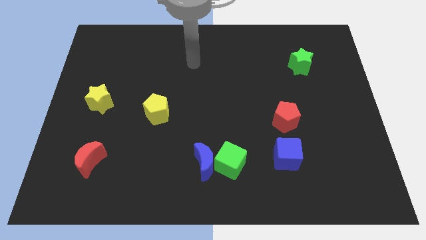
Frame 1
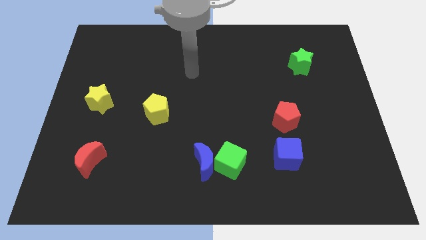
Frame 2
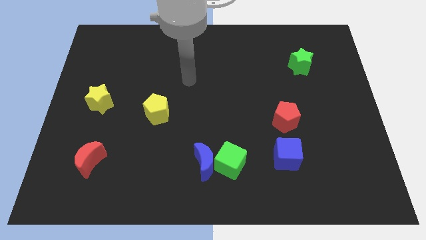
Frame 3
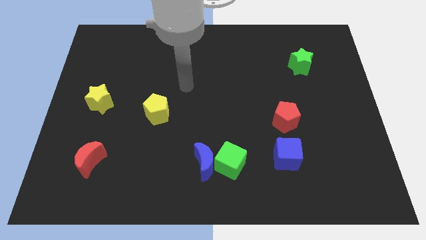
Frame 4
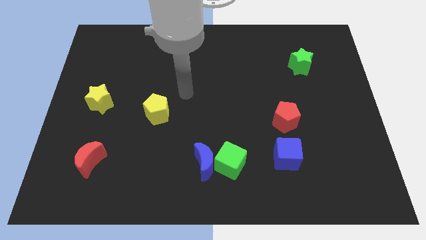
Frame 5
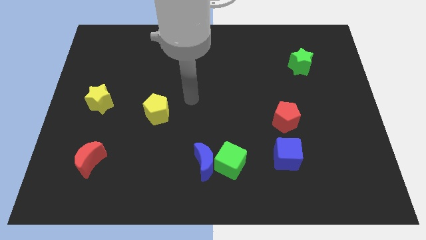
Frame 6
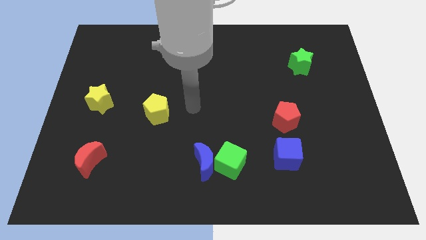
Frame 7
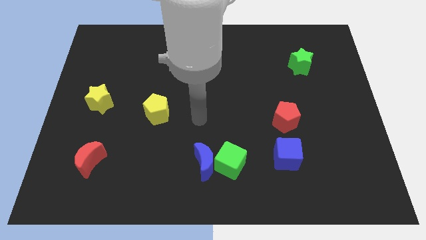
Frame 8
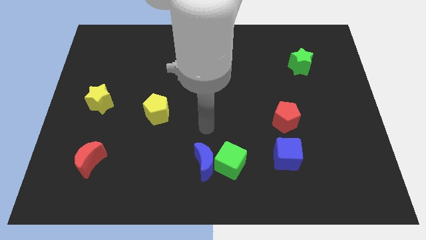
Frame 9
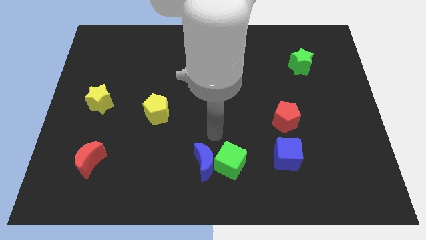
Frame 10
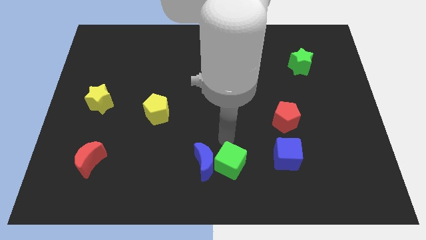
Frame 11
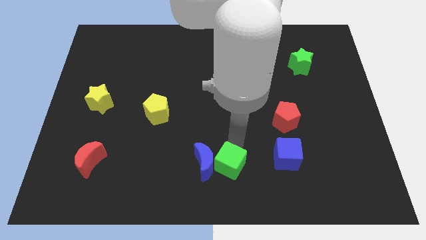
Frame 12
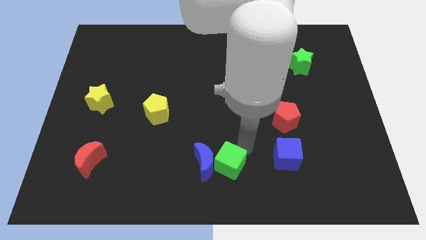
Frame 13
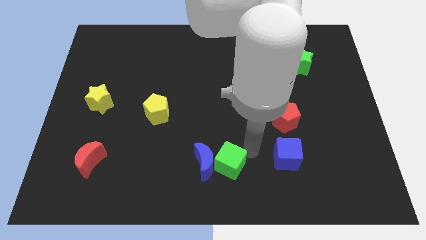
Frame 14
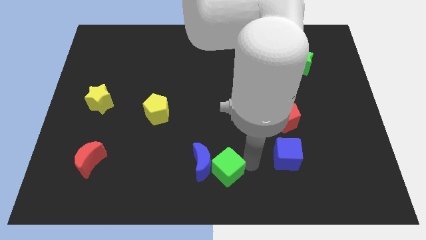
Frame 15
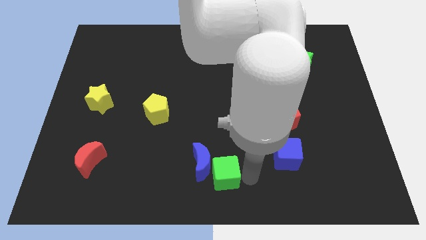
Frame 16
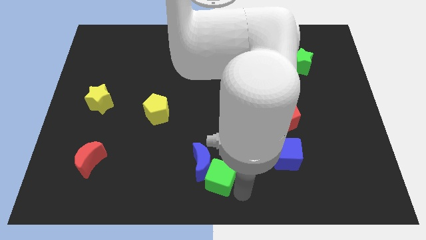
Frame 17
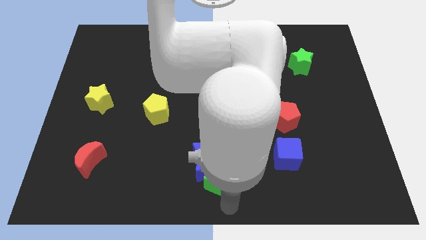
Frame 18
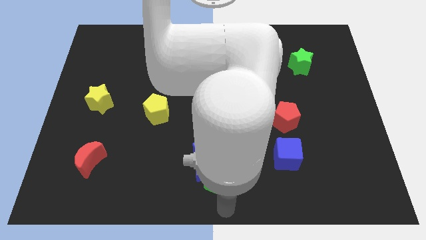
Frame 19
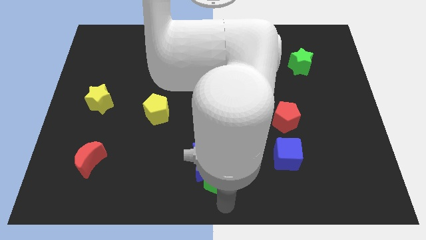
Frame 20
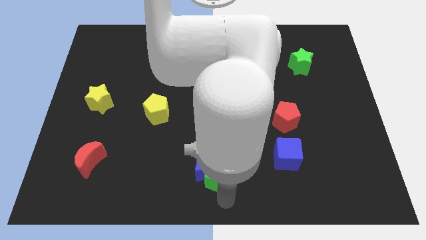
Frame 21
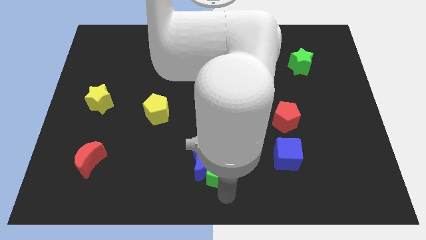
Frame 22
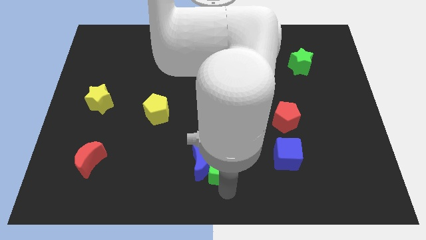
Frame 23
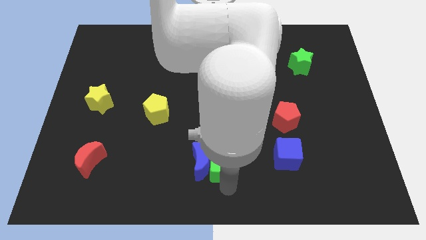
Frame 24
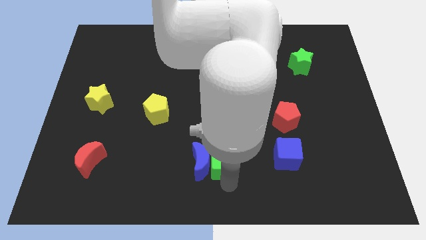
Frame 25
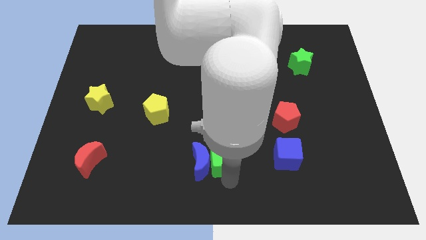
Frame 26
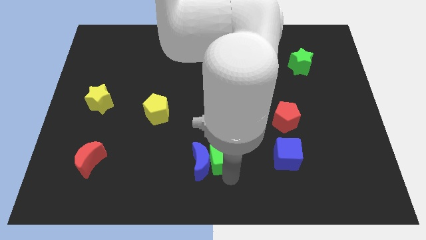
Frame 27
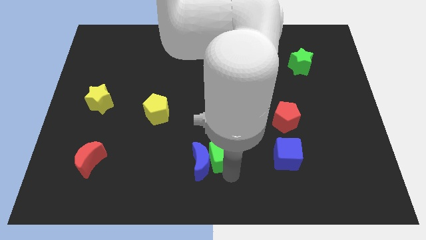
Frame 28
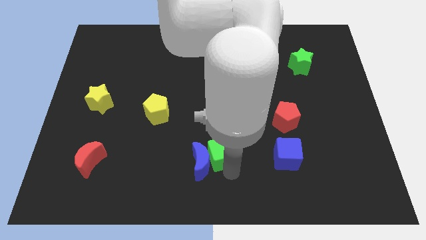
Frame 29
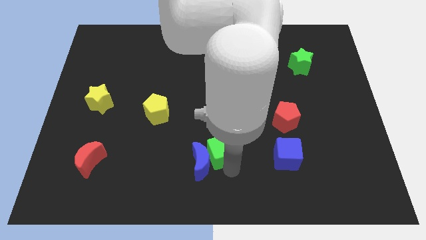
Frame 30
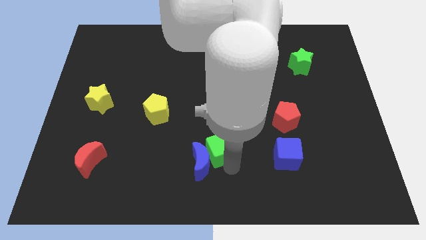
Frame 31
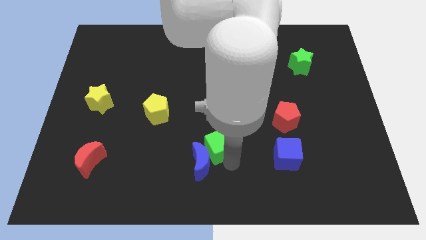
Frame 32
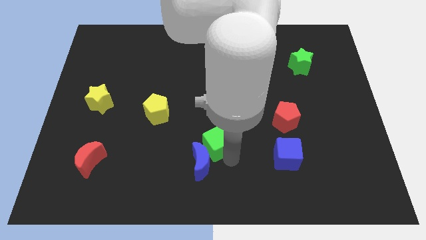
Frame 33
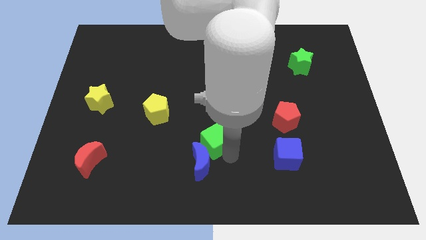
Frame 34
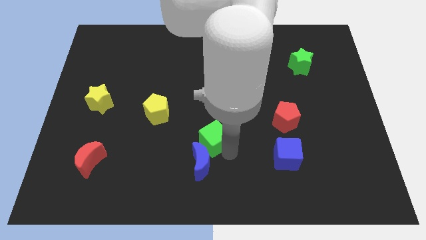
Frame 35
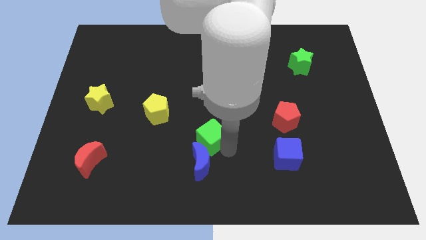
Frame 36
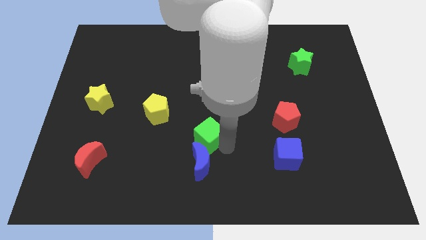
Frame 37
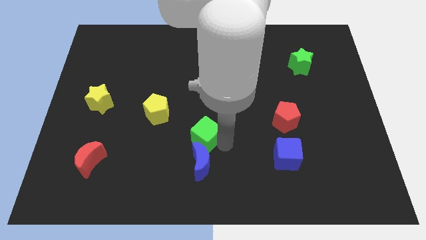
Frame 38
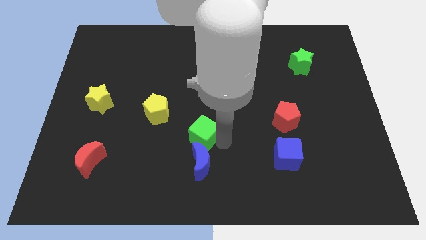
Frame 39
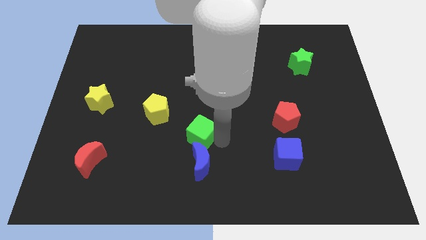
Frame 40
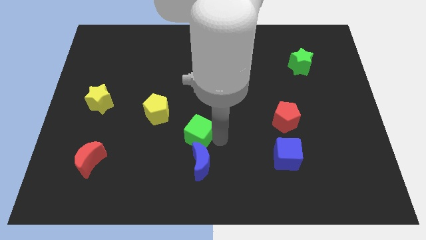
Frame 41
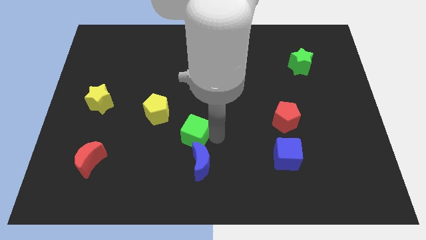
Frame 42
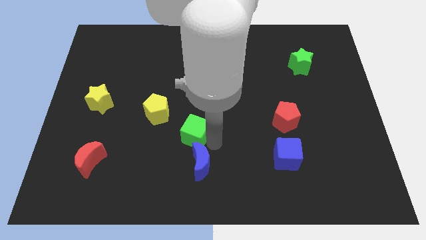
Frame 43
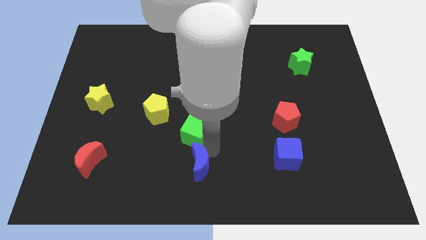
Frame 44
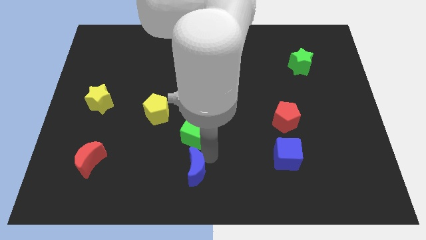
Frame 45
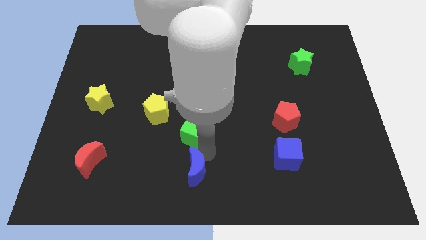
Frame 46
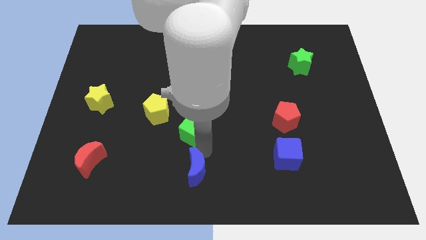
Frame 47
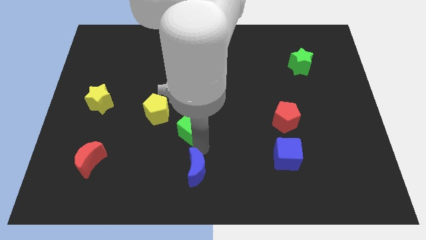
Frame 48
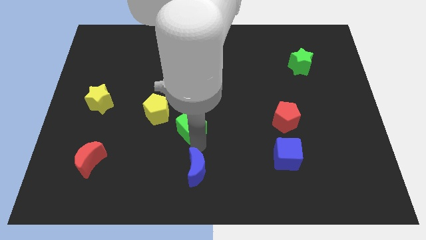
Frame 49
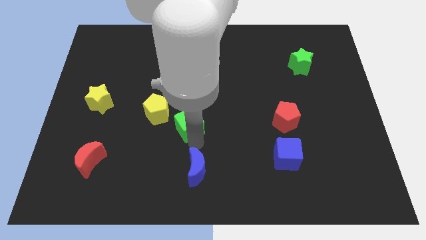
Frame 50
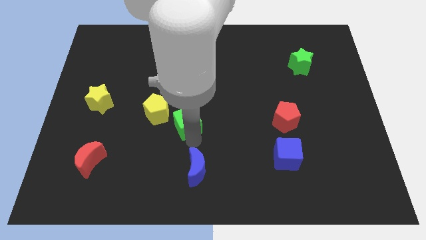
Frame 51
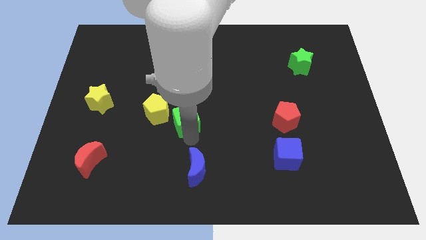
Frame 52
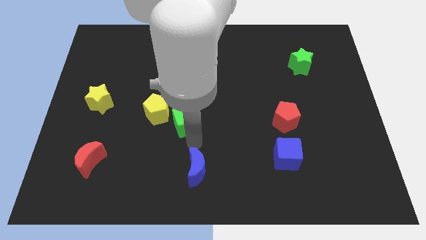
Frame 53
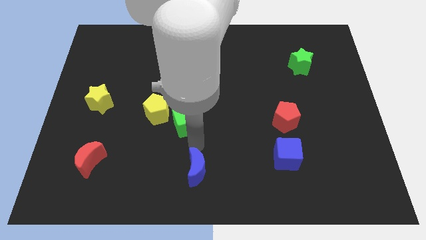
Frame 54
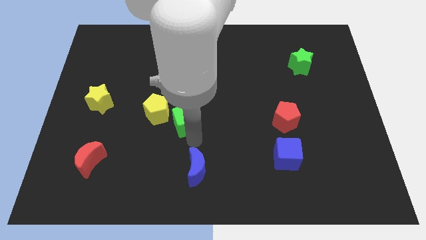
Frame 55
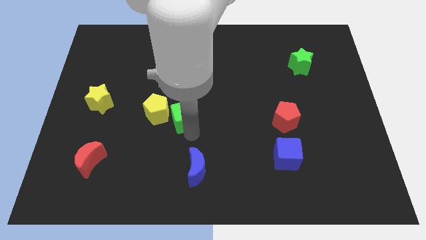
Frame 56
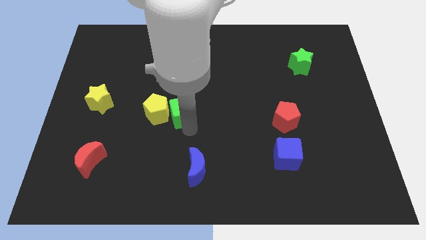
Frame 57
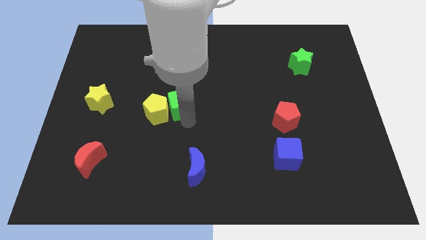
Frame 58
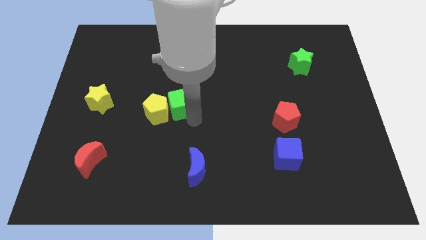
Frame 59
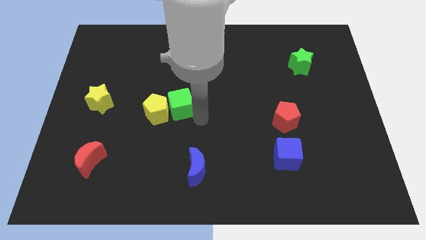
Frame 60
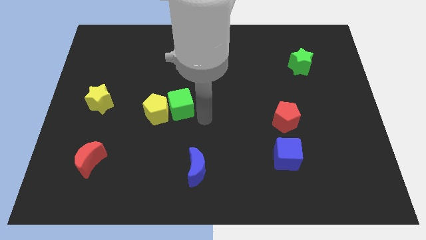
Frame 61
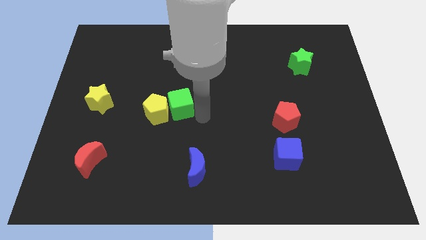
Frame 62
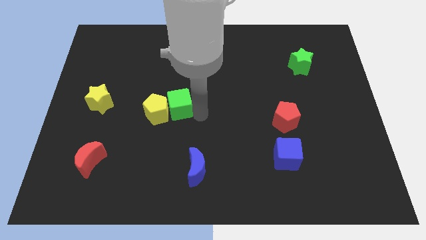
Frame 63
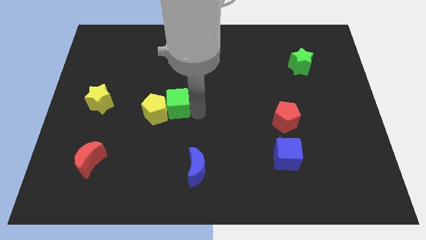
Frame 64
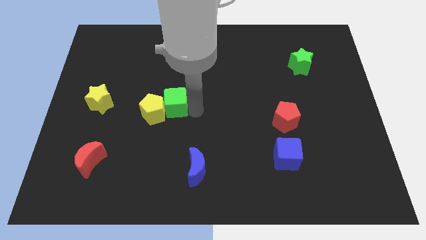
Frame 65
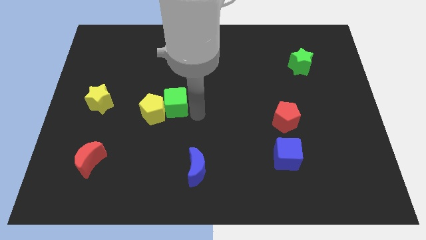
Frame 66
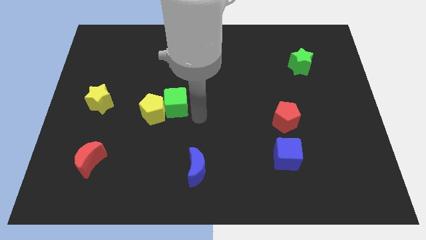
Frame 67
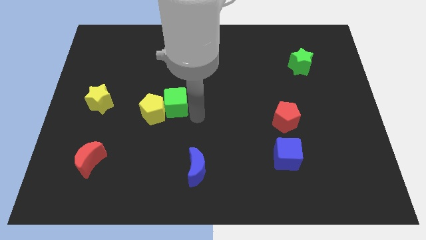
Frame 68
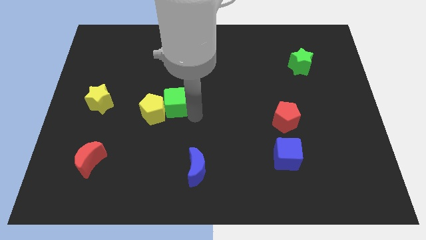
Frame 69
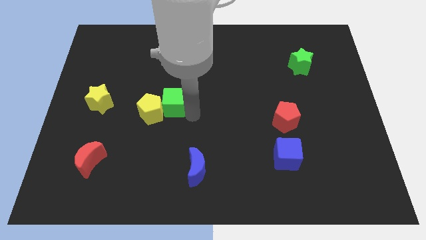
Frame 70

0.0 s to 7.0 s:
slide the green cube upwards and then left

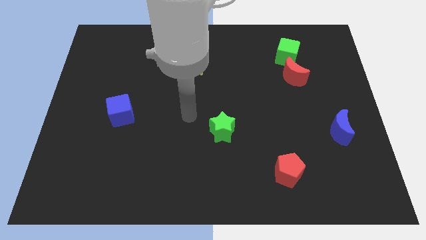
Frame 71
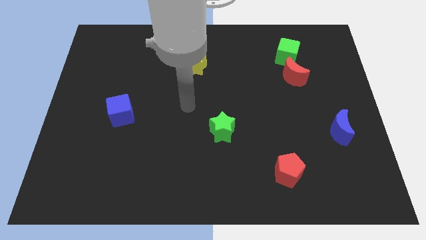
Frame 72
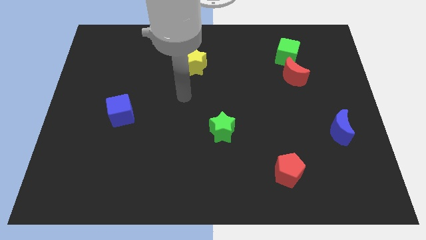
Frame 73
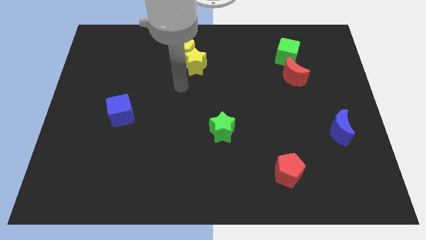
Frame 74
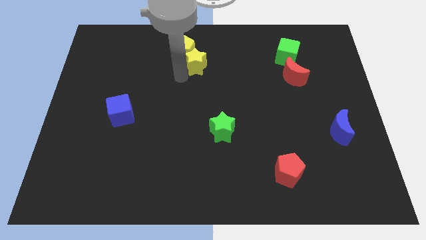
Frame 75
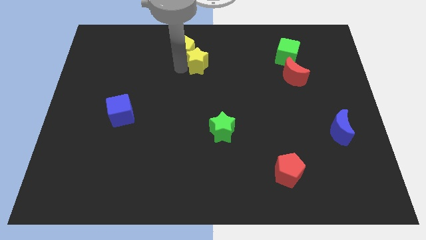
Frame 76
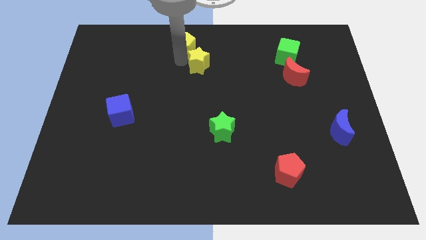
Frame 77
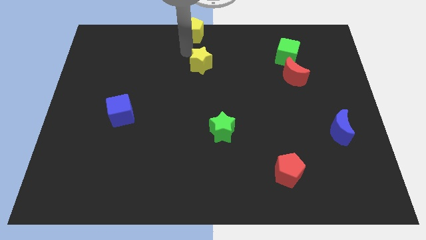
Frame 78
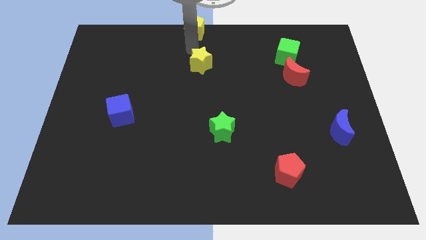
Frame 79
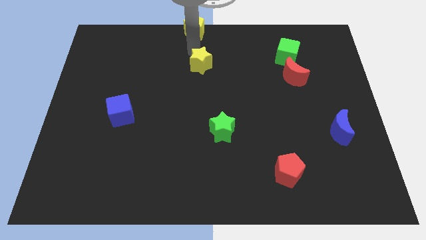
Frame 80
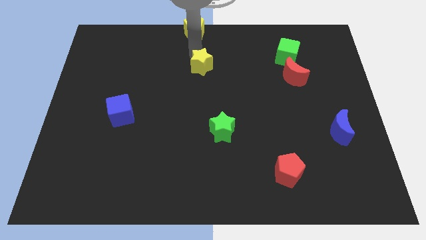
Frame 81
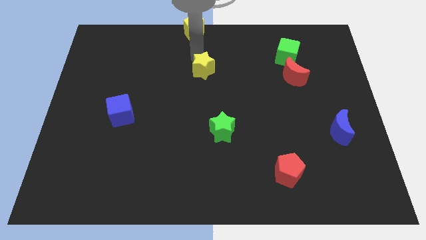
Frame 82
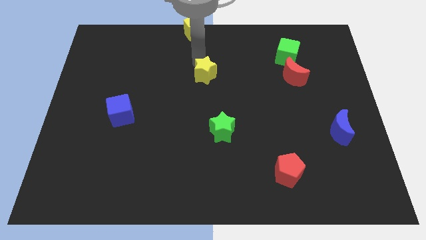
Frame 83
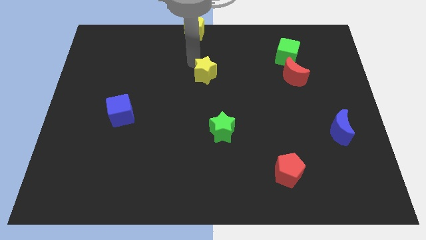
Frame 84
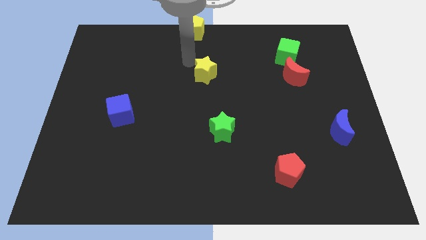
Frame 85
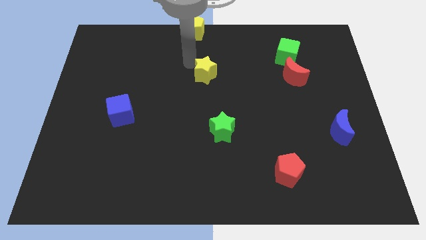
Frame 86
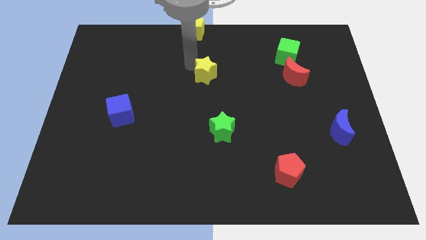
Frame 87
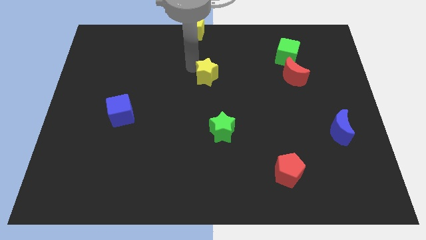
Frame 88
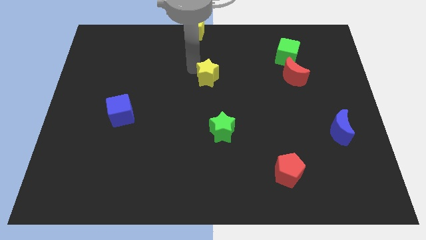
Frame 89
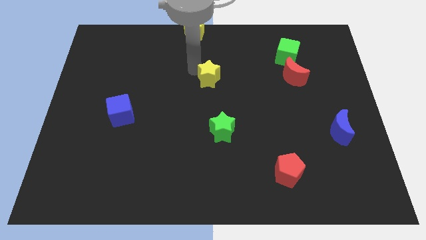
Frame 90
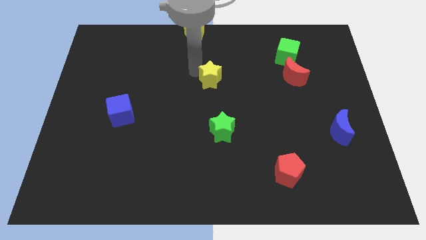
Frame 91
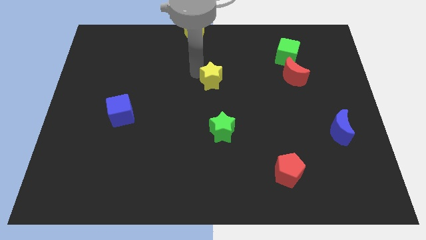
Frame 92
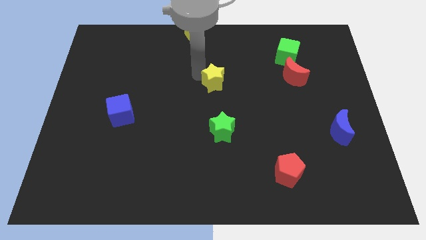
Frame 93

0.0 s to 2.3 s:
move the yellow star down and right diagonally a little
